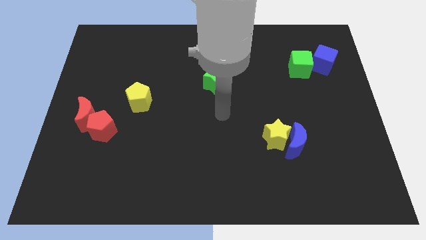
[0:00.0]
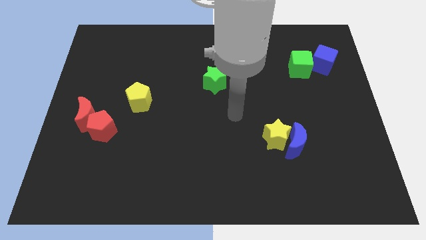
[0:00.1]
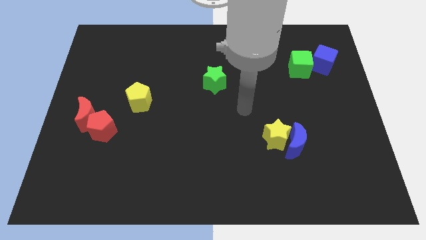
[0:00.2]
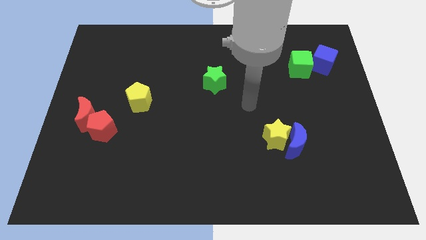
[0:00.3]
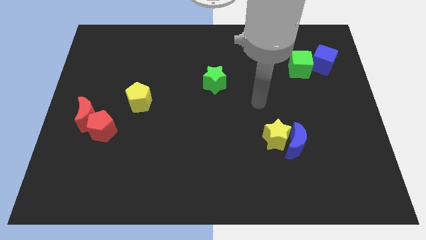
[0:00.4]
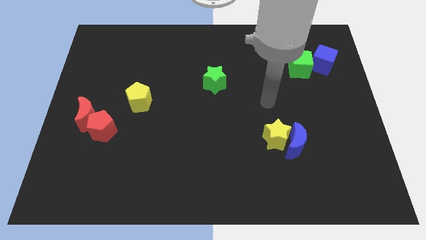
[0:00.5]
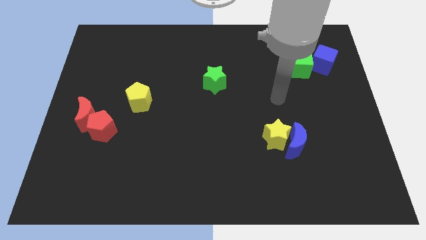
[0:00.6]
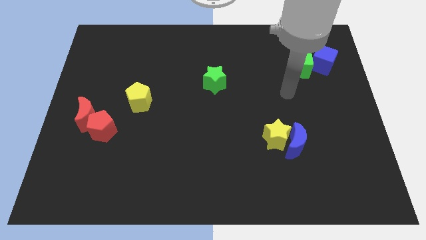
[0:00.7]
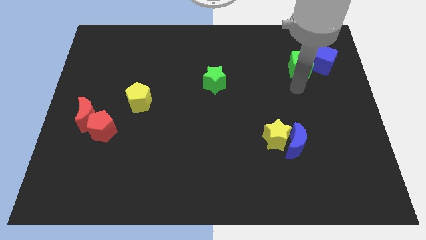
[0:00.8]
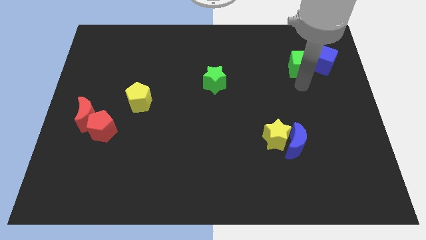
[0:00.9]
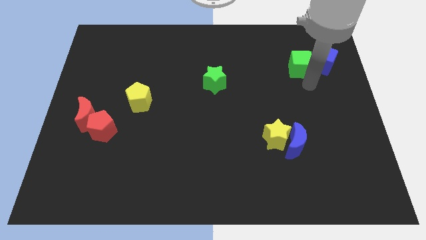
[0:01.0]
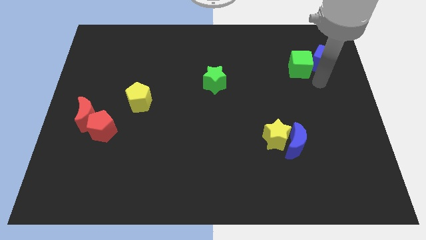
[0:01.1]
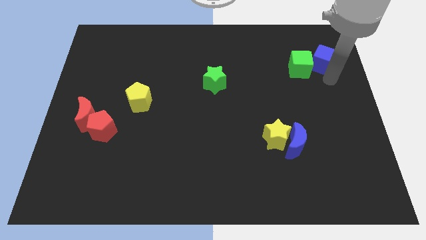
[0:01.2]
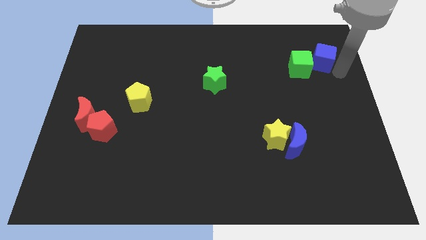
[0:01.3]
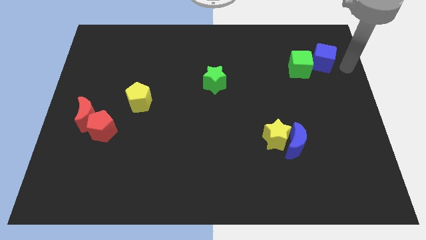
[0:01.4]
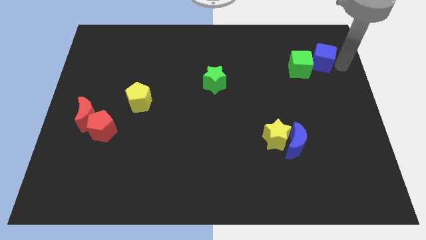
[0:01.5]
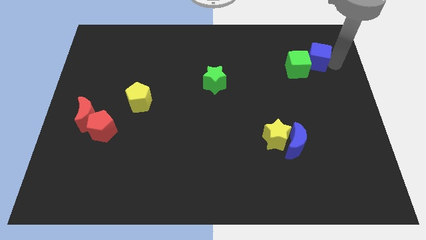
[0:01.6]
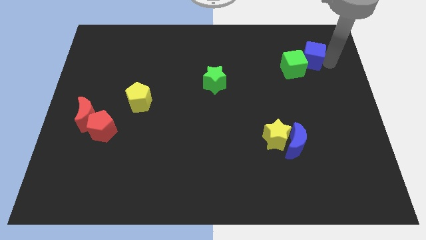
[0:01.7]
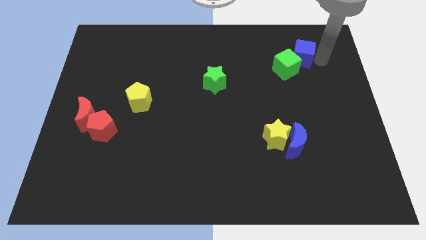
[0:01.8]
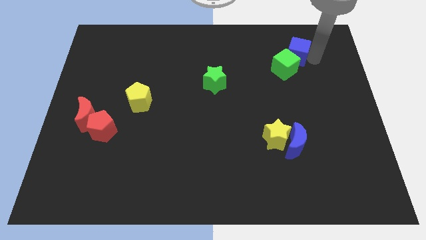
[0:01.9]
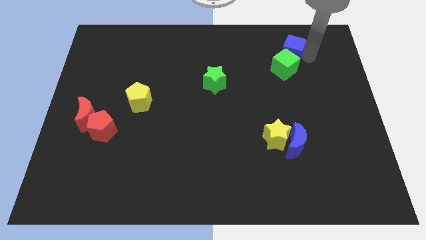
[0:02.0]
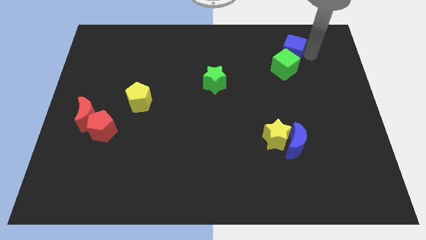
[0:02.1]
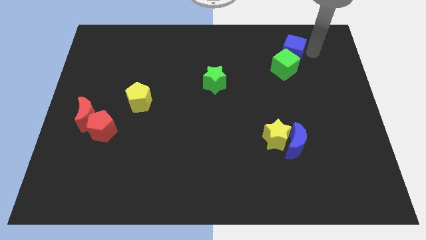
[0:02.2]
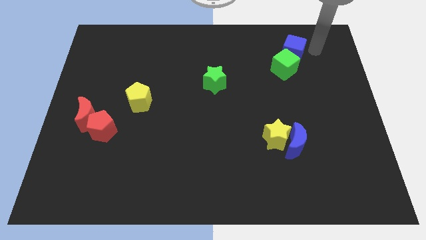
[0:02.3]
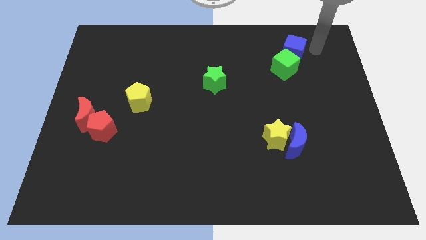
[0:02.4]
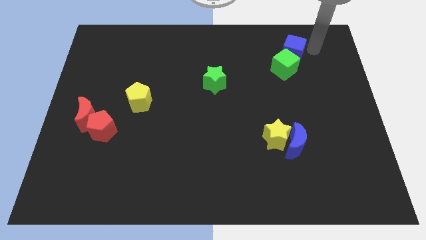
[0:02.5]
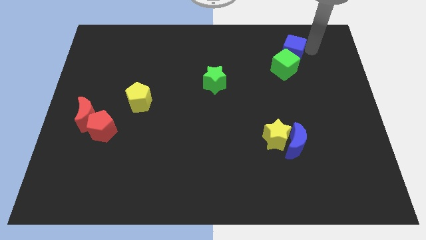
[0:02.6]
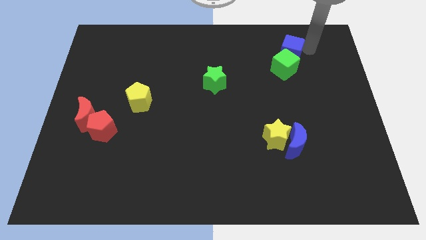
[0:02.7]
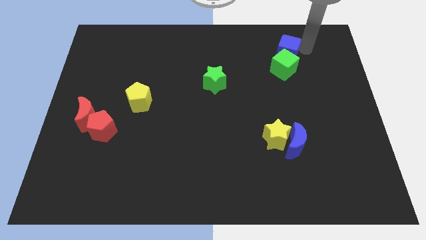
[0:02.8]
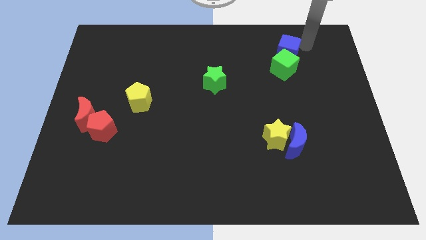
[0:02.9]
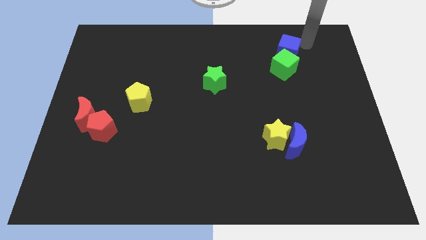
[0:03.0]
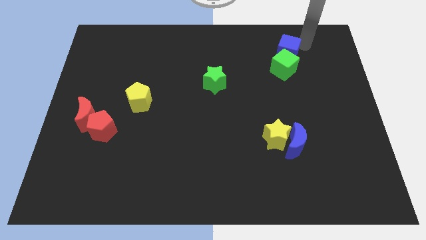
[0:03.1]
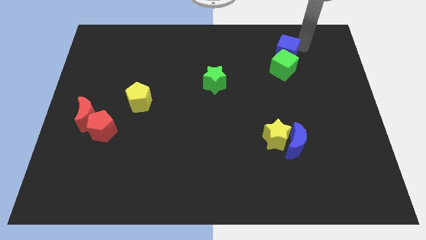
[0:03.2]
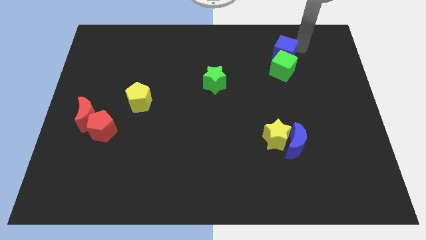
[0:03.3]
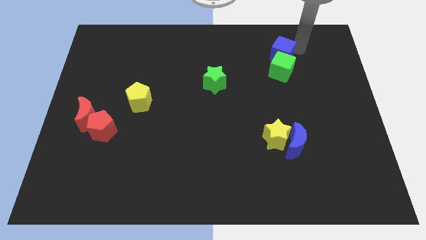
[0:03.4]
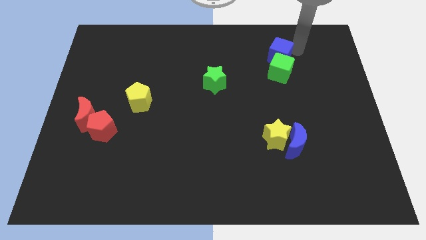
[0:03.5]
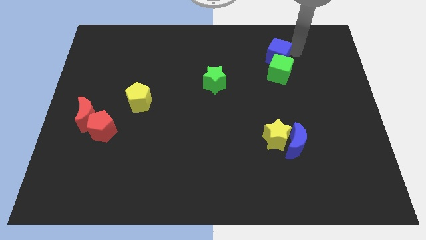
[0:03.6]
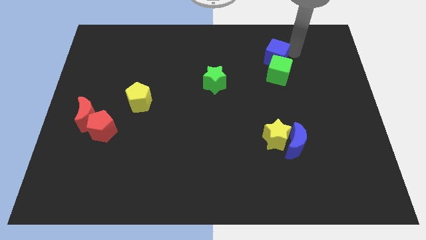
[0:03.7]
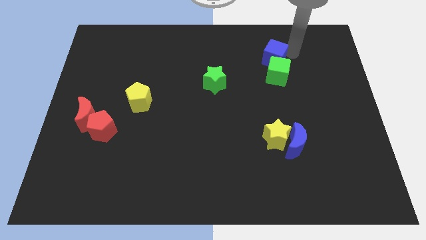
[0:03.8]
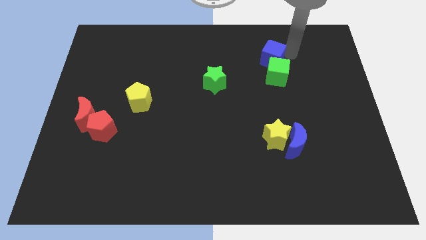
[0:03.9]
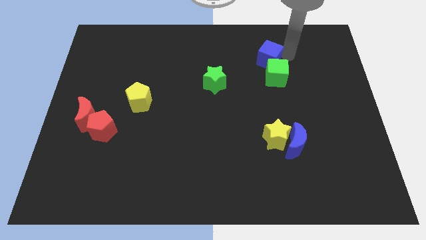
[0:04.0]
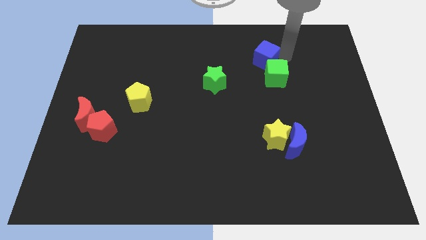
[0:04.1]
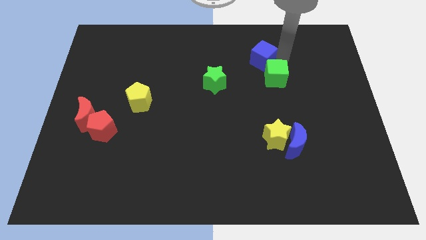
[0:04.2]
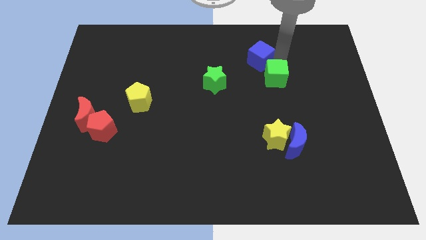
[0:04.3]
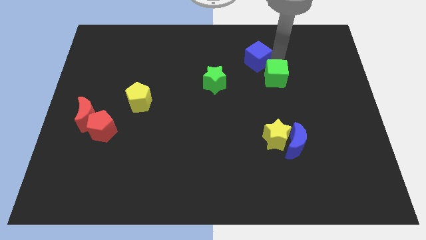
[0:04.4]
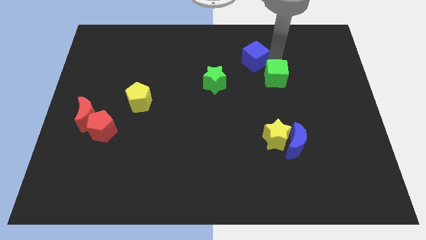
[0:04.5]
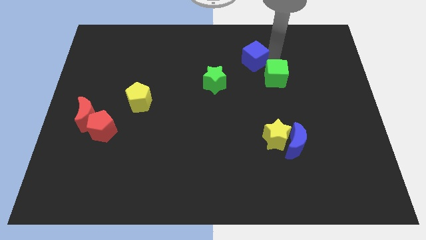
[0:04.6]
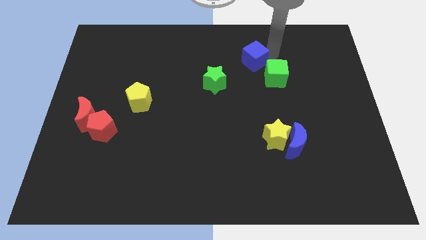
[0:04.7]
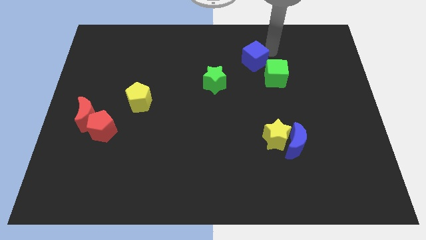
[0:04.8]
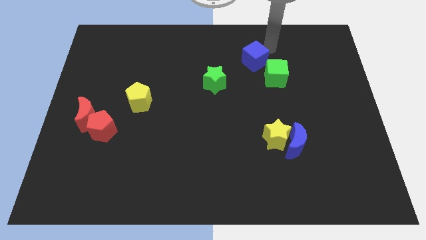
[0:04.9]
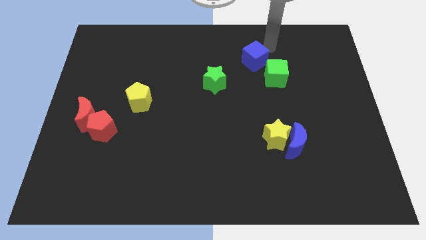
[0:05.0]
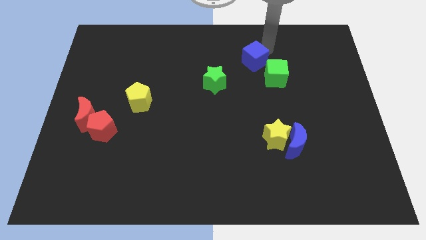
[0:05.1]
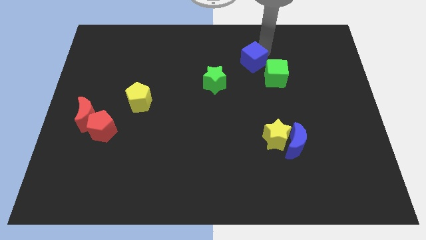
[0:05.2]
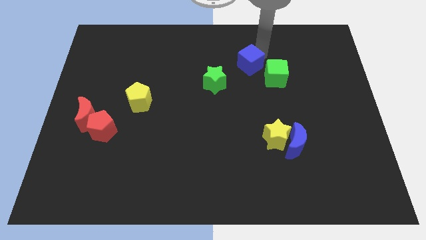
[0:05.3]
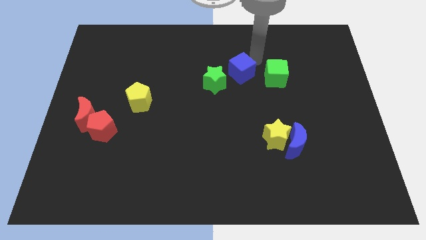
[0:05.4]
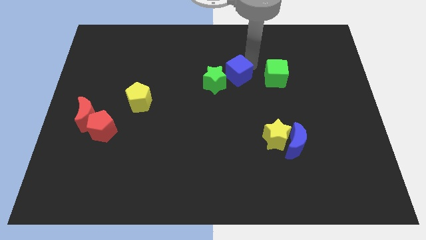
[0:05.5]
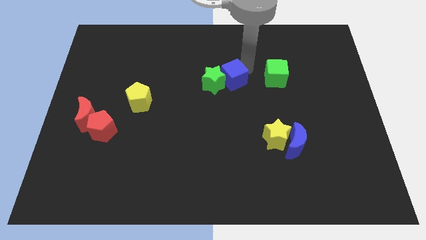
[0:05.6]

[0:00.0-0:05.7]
slide the blue cube towards the green star

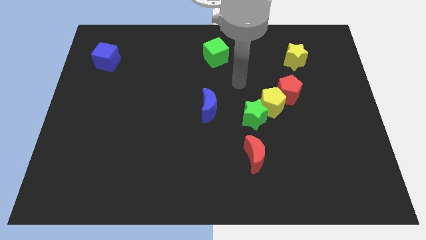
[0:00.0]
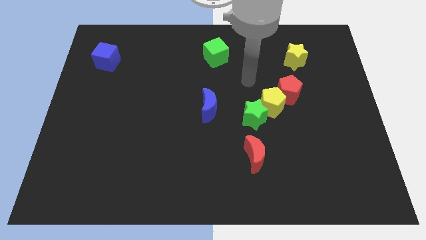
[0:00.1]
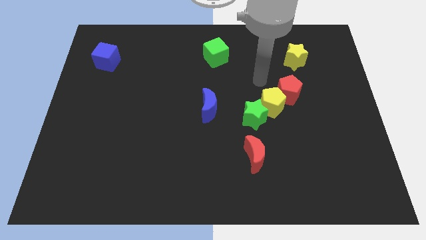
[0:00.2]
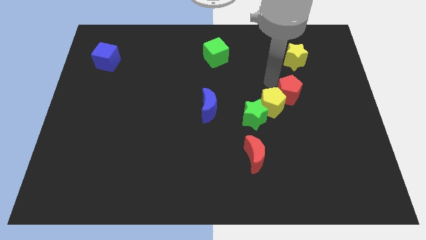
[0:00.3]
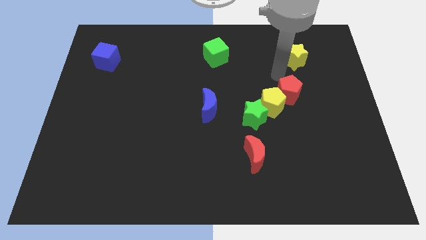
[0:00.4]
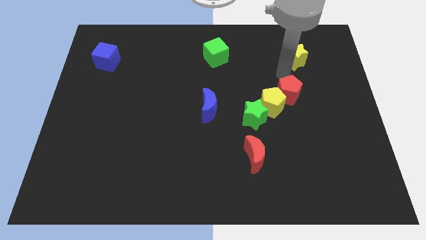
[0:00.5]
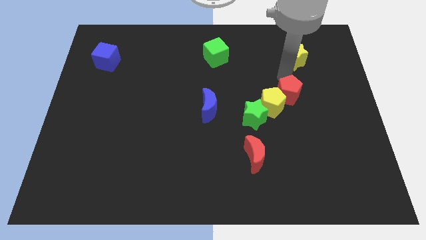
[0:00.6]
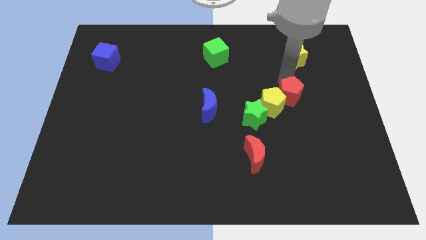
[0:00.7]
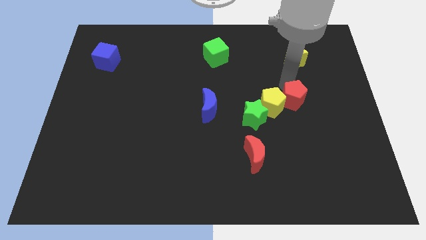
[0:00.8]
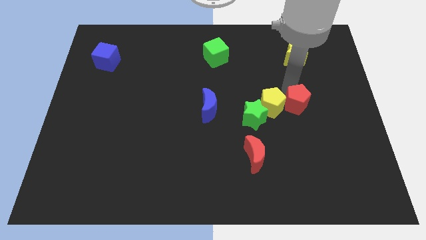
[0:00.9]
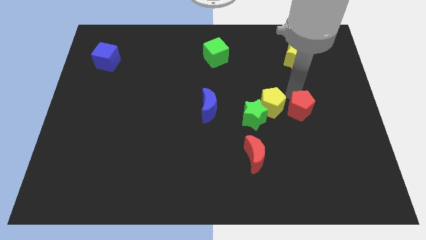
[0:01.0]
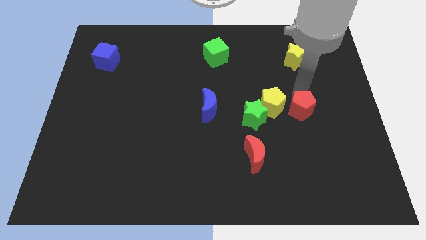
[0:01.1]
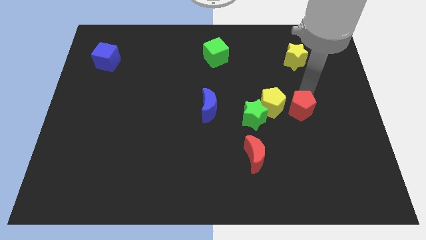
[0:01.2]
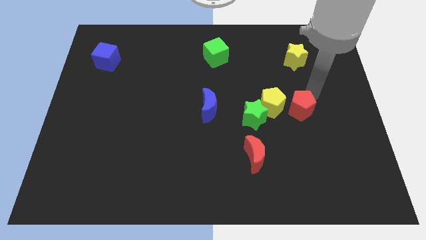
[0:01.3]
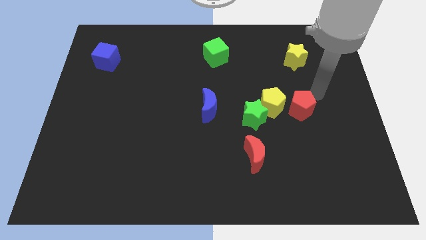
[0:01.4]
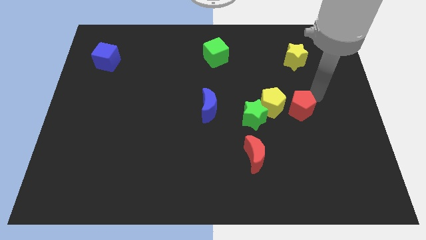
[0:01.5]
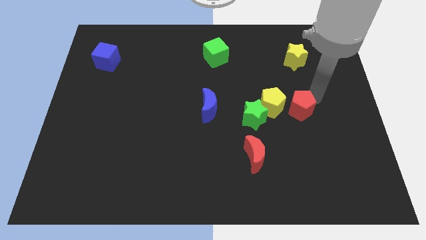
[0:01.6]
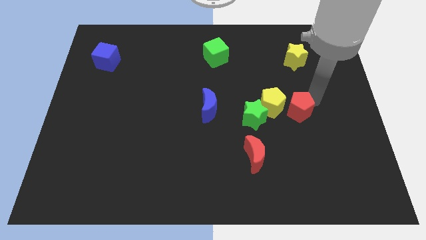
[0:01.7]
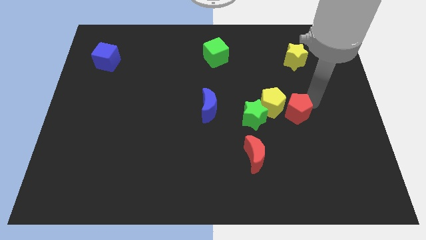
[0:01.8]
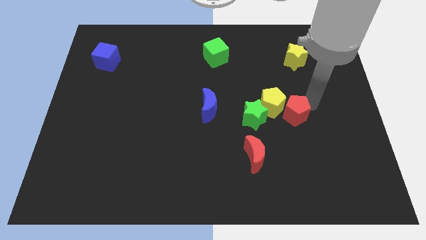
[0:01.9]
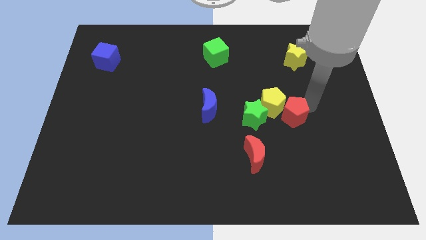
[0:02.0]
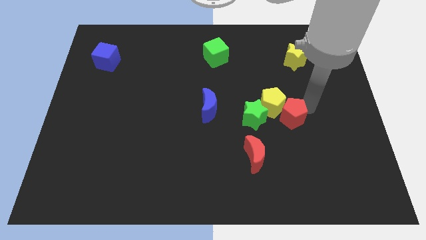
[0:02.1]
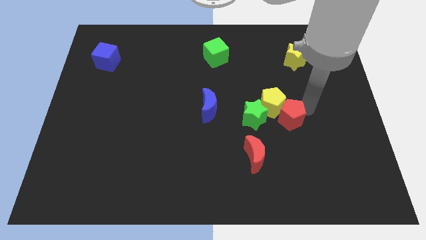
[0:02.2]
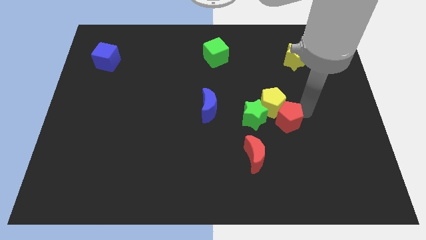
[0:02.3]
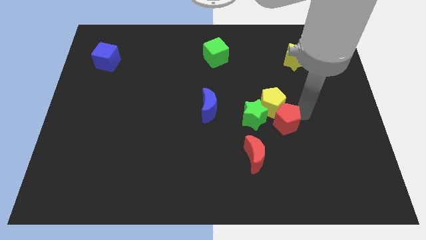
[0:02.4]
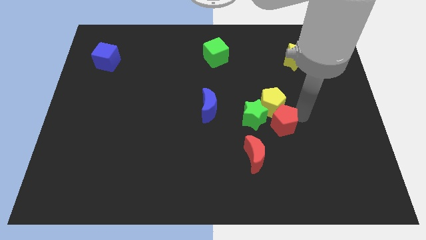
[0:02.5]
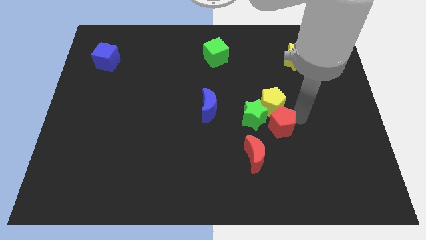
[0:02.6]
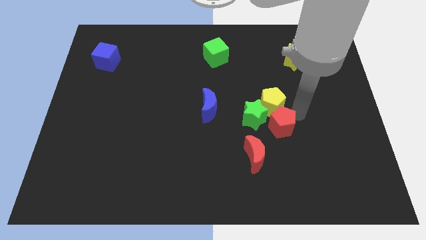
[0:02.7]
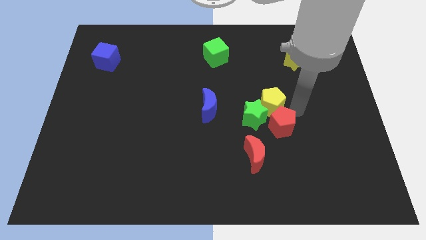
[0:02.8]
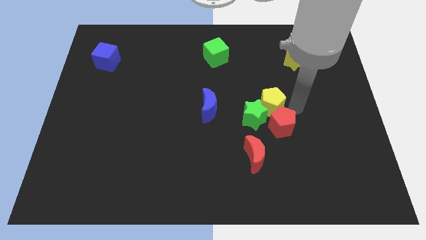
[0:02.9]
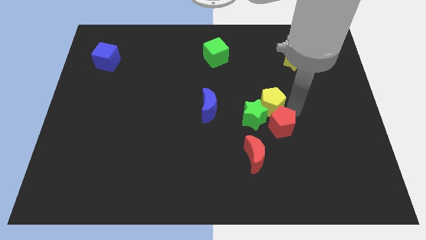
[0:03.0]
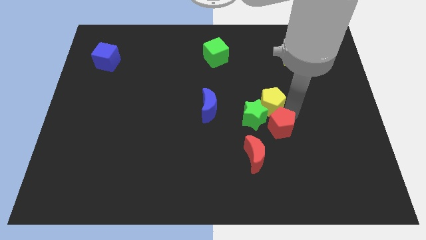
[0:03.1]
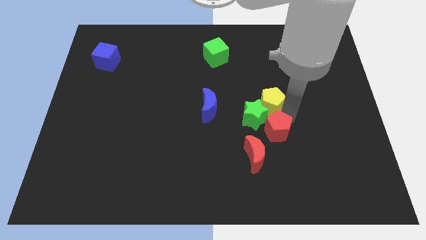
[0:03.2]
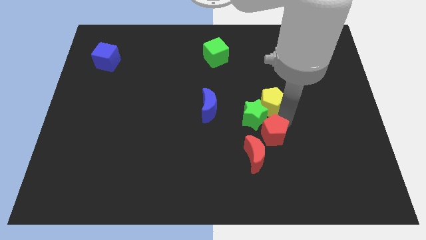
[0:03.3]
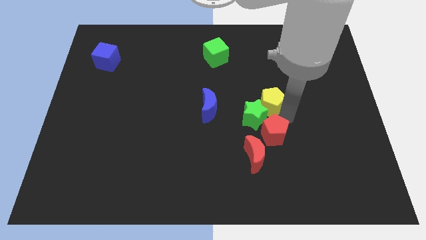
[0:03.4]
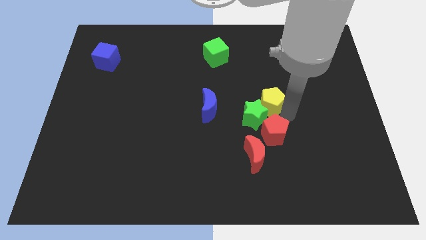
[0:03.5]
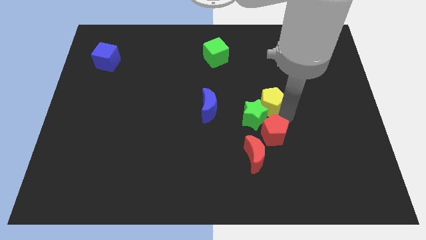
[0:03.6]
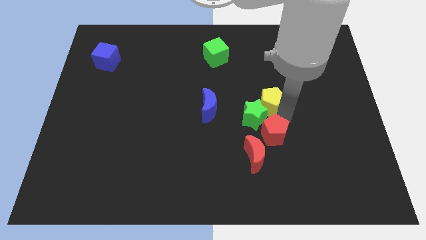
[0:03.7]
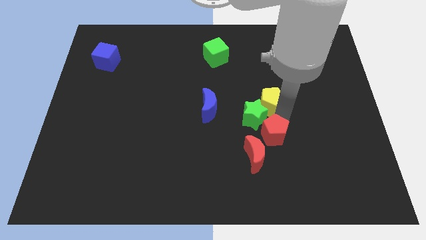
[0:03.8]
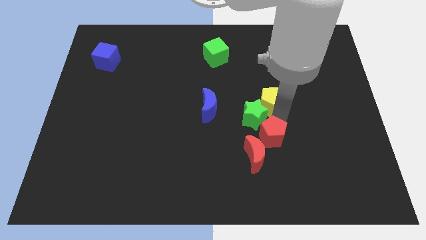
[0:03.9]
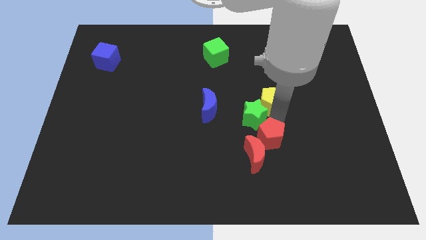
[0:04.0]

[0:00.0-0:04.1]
move the red pentagon close to the red moon
